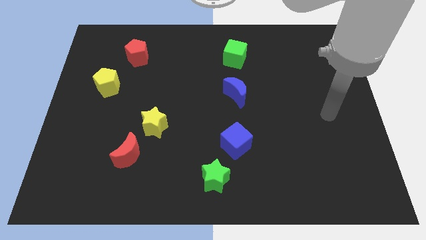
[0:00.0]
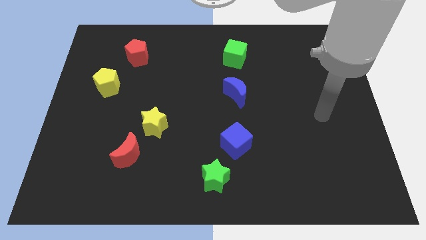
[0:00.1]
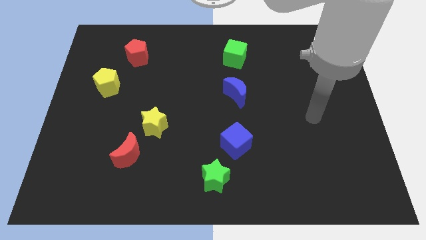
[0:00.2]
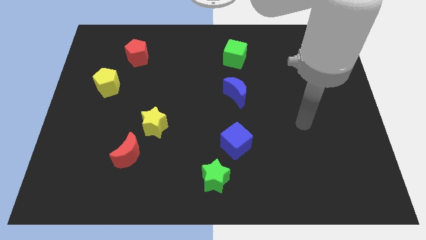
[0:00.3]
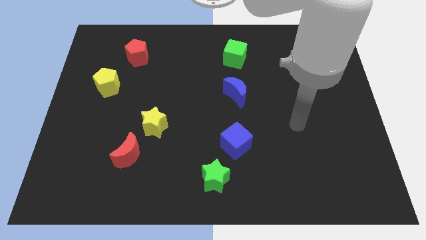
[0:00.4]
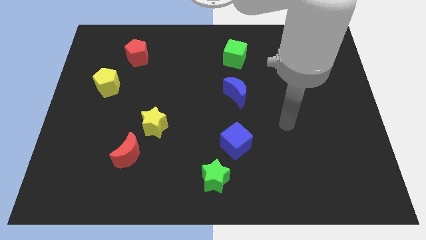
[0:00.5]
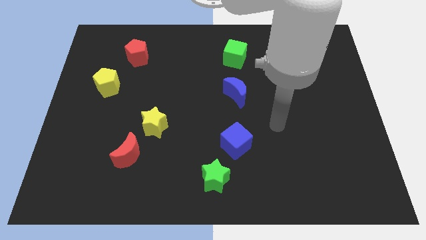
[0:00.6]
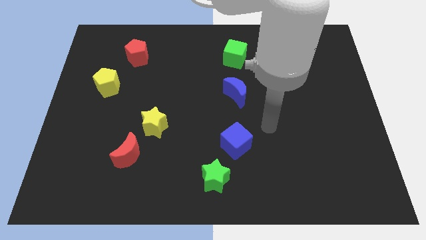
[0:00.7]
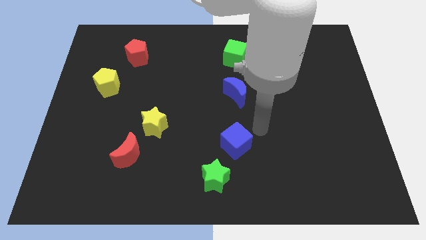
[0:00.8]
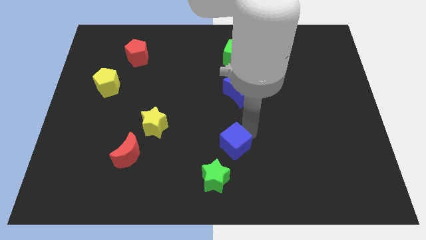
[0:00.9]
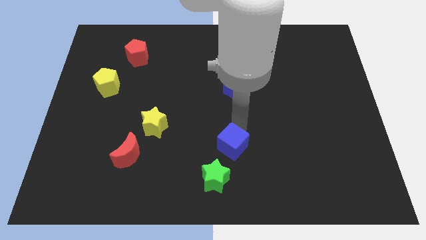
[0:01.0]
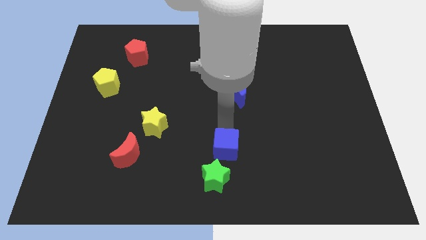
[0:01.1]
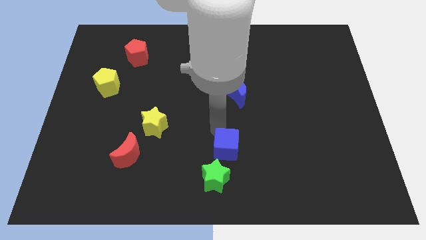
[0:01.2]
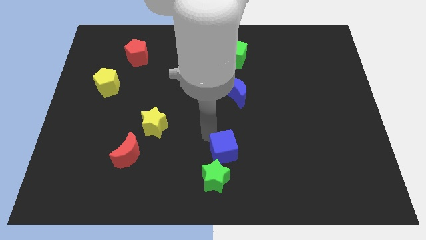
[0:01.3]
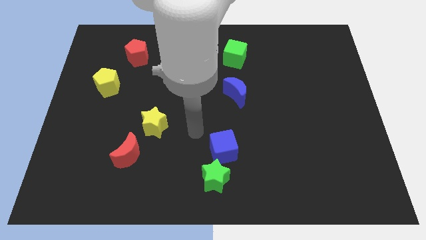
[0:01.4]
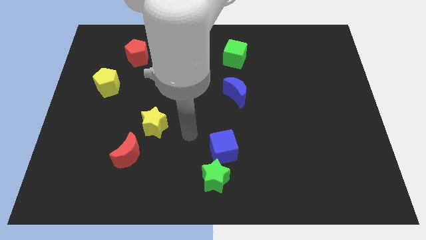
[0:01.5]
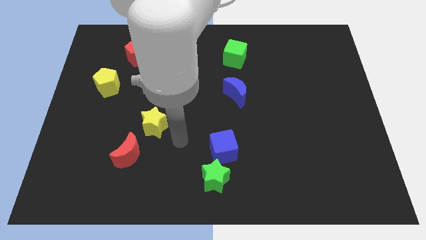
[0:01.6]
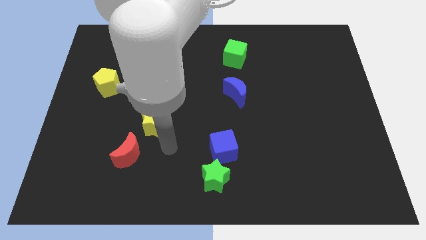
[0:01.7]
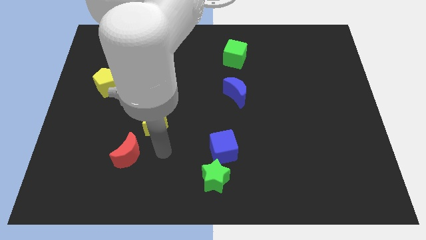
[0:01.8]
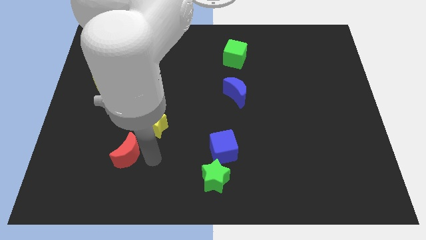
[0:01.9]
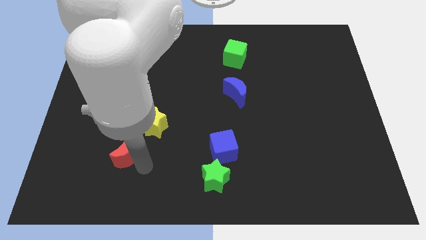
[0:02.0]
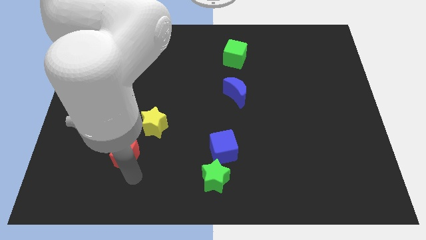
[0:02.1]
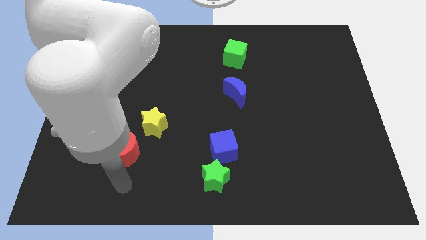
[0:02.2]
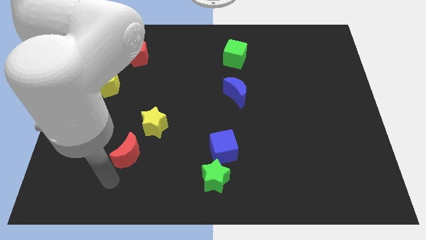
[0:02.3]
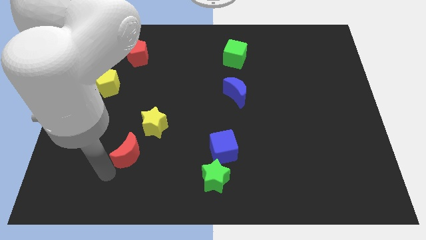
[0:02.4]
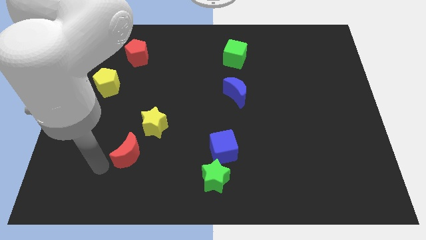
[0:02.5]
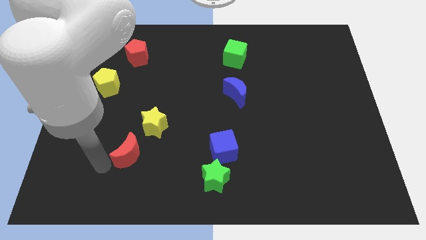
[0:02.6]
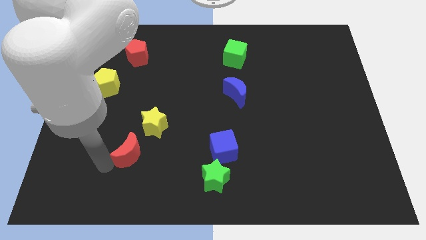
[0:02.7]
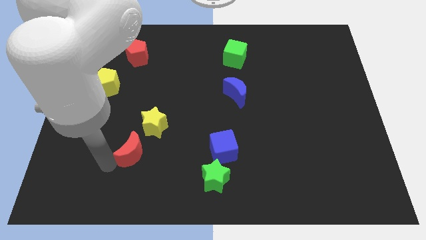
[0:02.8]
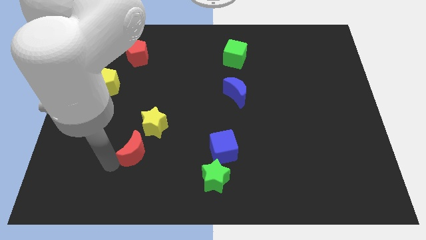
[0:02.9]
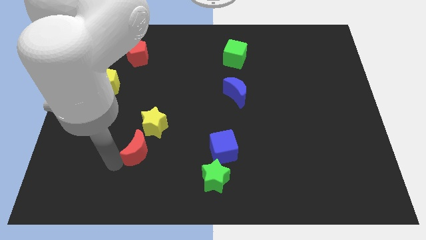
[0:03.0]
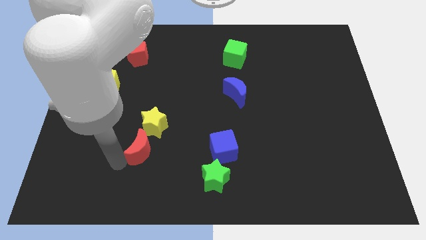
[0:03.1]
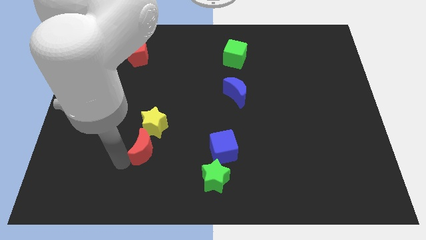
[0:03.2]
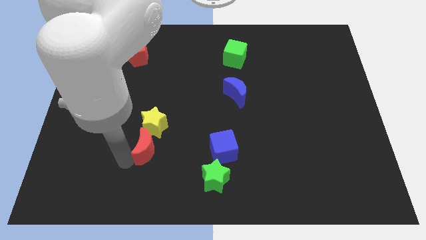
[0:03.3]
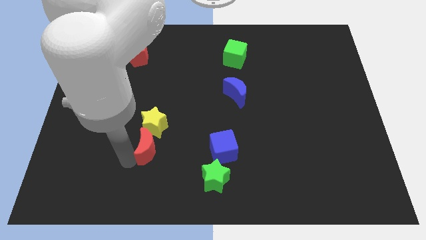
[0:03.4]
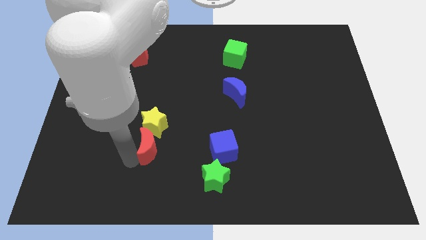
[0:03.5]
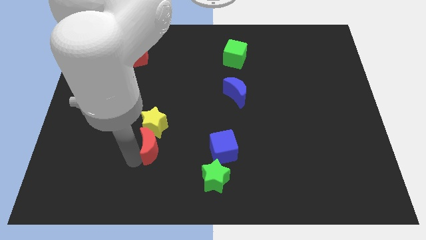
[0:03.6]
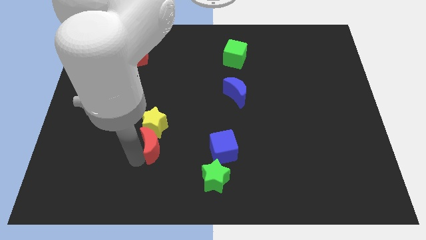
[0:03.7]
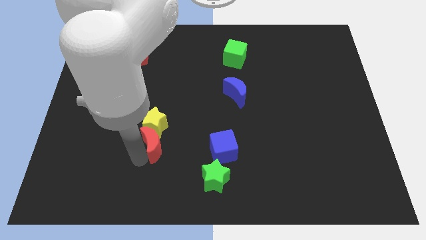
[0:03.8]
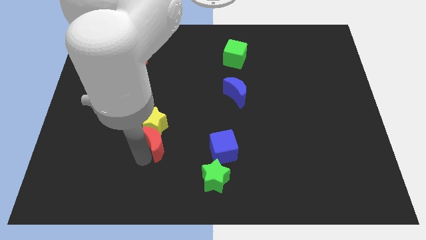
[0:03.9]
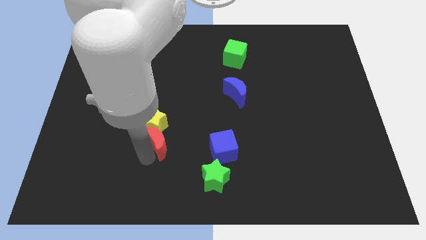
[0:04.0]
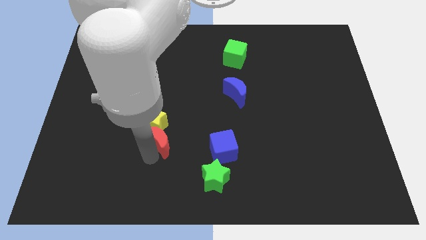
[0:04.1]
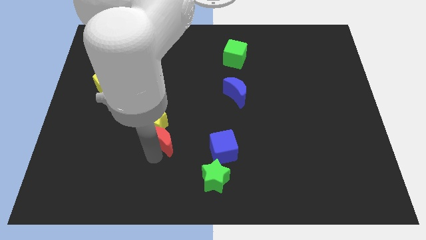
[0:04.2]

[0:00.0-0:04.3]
slightly move the red moon up and then right

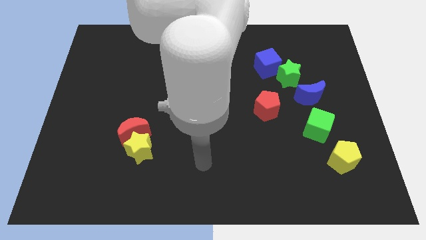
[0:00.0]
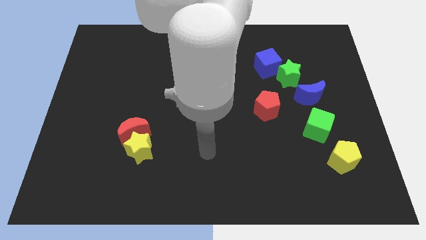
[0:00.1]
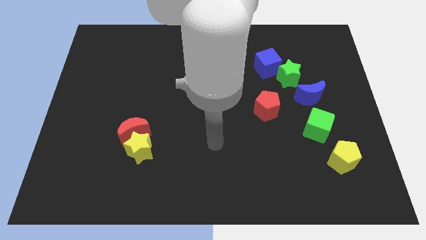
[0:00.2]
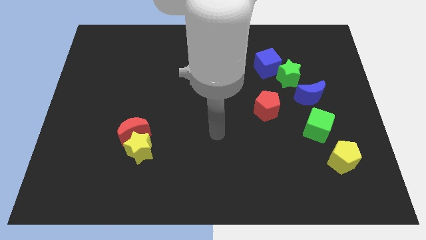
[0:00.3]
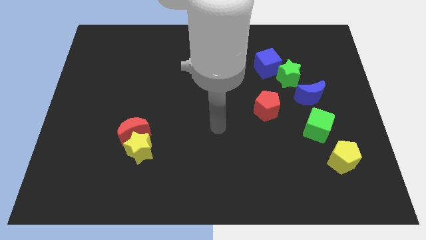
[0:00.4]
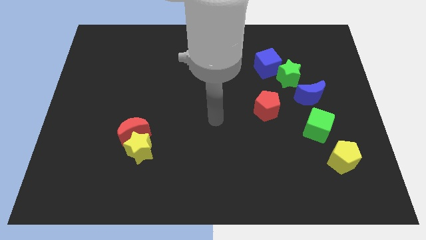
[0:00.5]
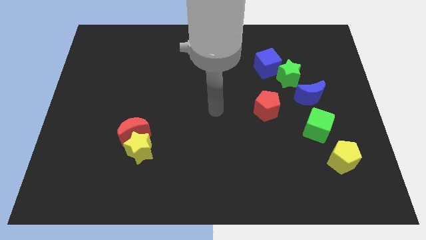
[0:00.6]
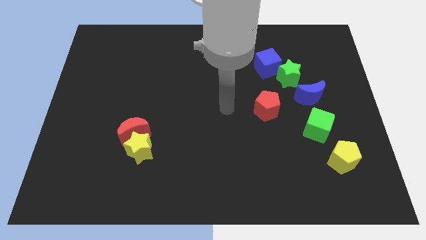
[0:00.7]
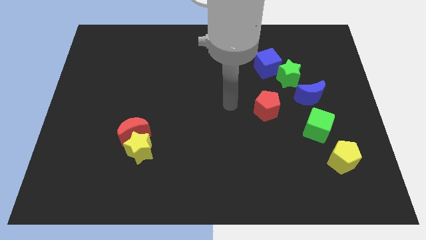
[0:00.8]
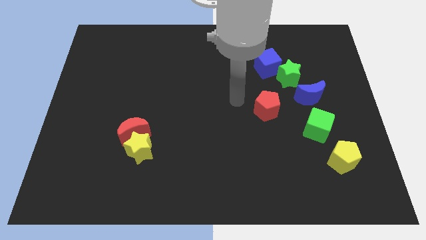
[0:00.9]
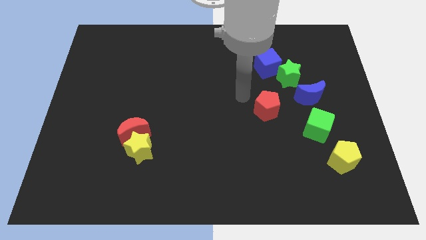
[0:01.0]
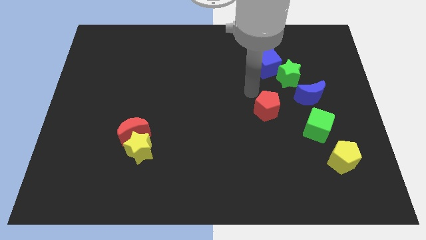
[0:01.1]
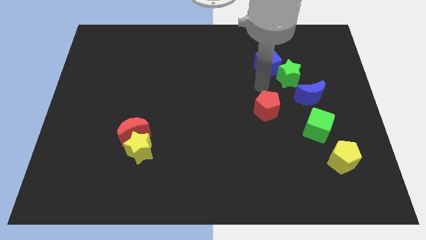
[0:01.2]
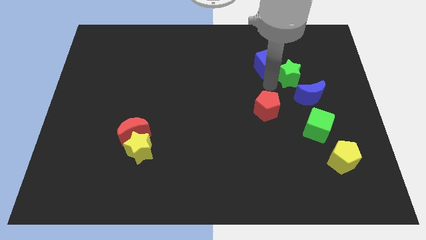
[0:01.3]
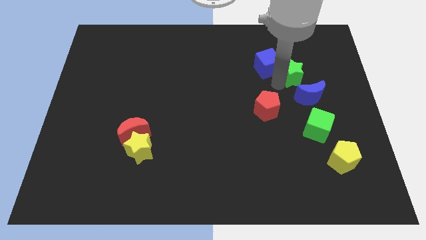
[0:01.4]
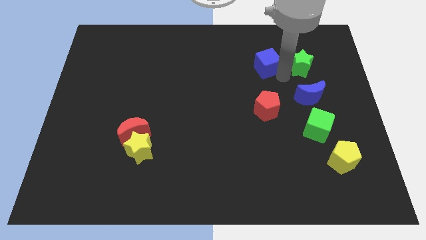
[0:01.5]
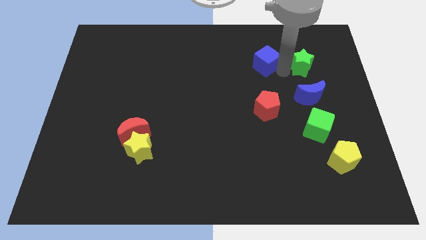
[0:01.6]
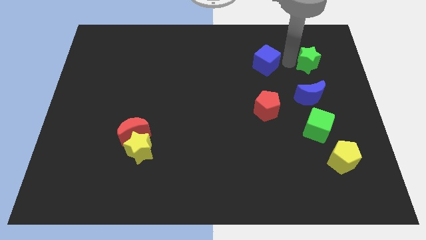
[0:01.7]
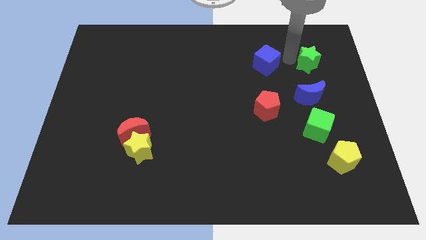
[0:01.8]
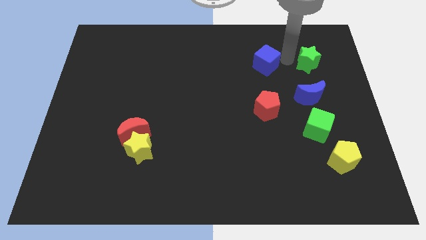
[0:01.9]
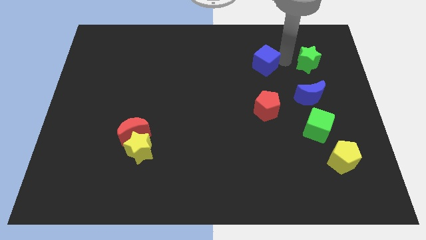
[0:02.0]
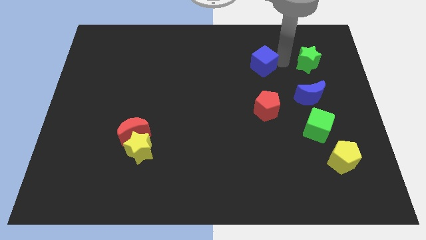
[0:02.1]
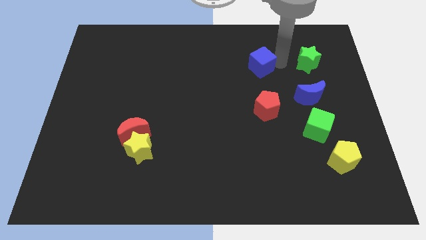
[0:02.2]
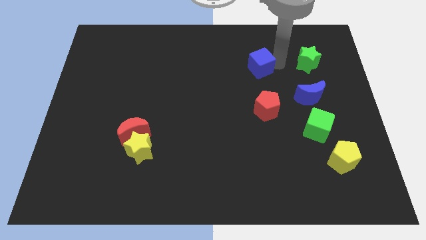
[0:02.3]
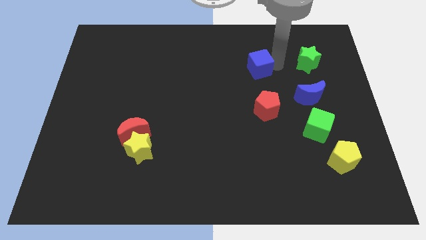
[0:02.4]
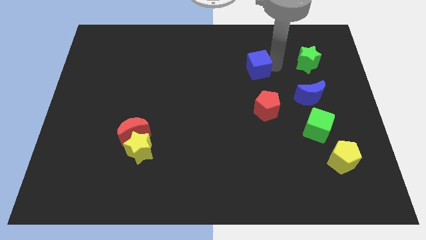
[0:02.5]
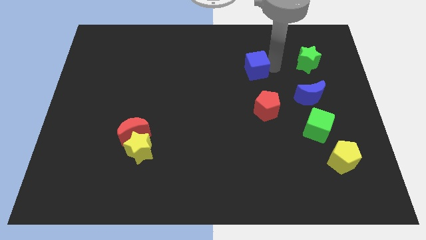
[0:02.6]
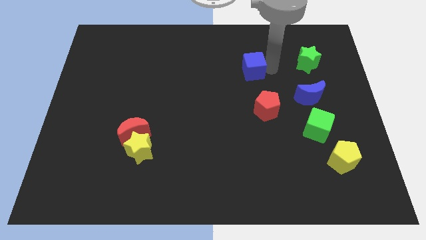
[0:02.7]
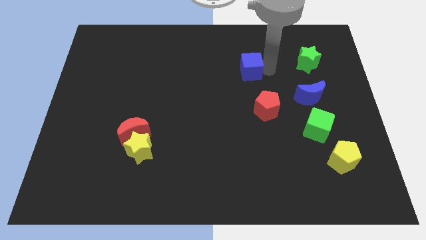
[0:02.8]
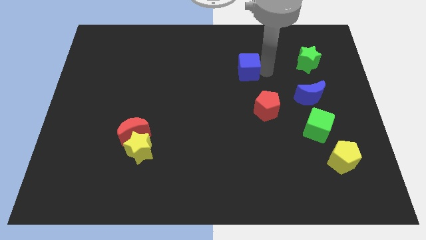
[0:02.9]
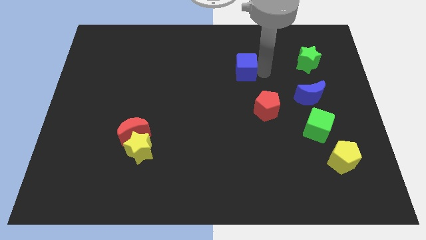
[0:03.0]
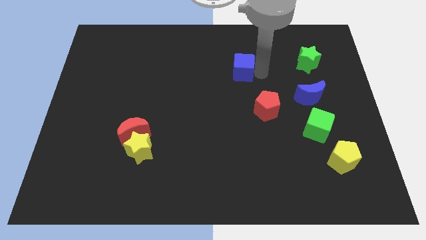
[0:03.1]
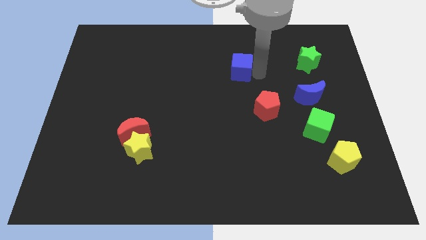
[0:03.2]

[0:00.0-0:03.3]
slightly move the blue cube left

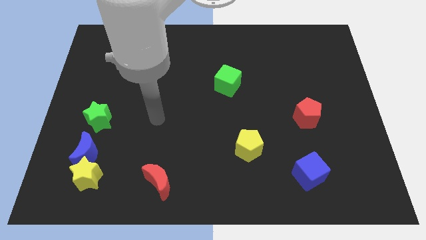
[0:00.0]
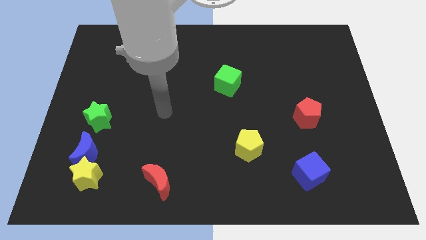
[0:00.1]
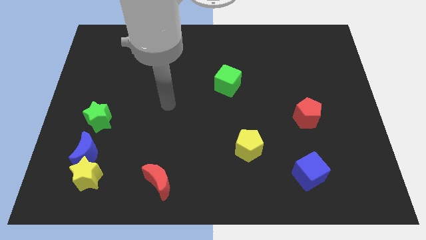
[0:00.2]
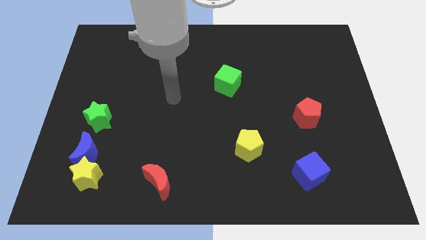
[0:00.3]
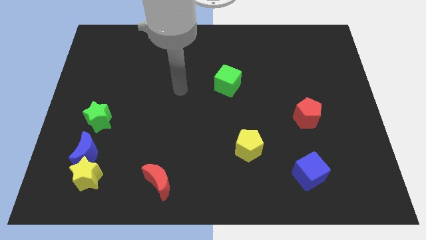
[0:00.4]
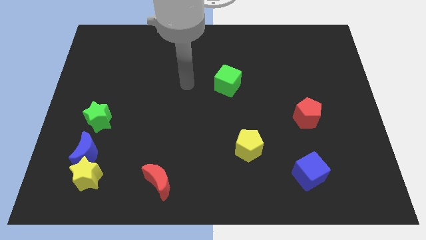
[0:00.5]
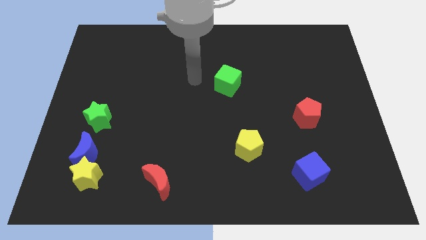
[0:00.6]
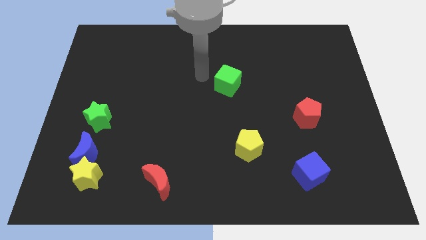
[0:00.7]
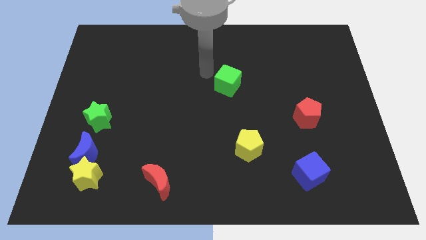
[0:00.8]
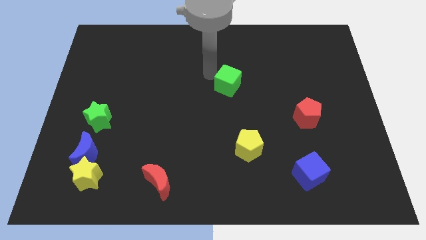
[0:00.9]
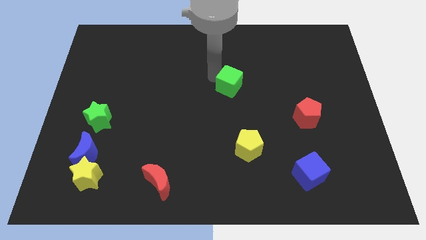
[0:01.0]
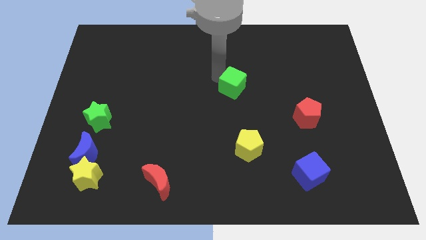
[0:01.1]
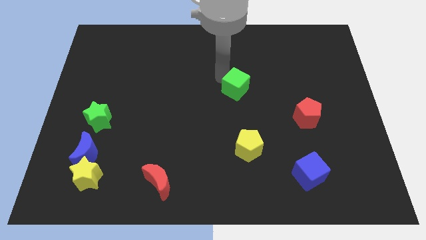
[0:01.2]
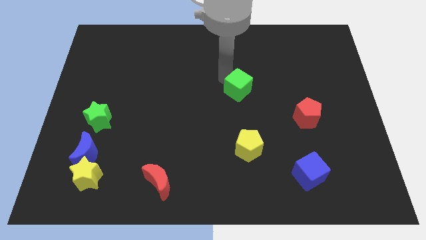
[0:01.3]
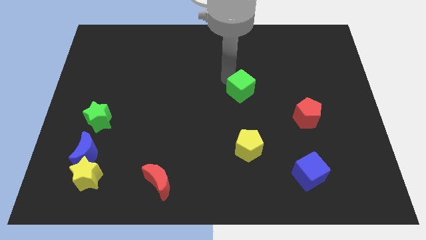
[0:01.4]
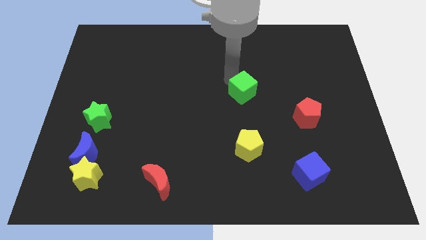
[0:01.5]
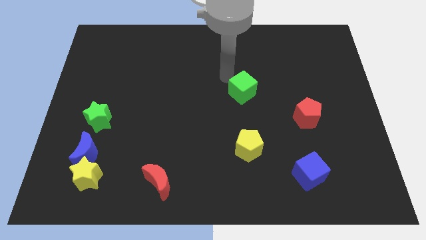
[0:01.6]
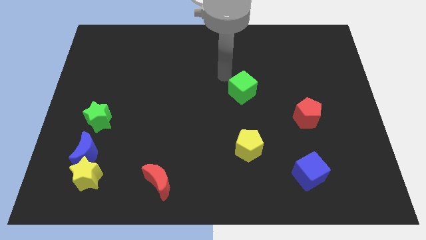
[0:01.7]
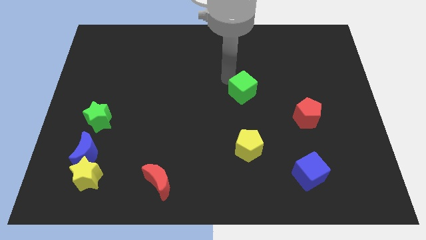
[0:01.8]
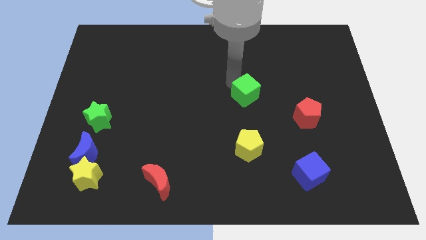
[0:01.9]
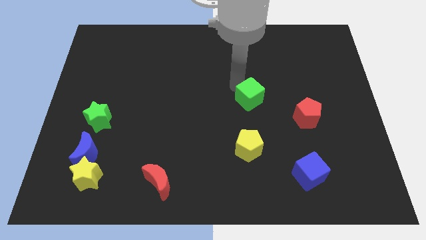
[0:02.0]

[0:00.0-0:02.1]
move the green cube downwards and to the right diagonally slightly
